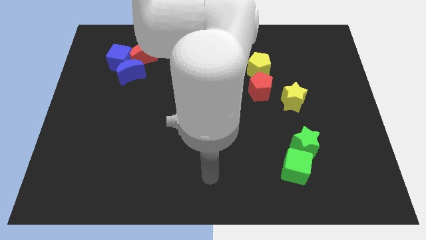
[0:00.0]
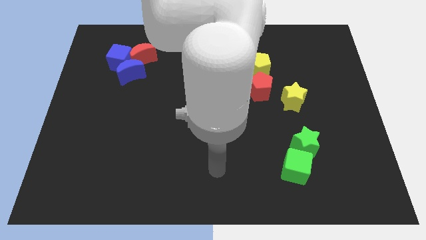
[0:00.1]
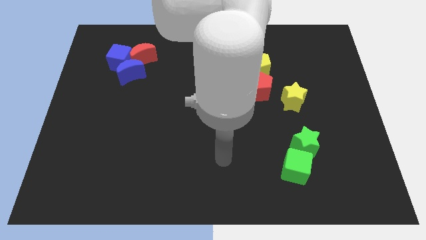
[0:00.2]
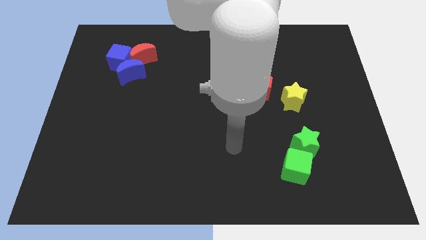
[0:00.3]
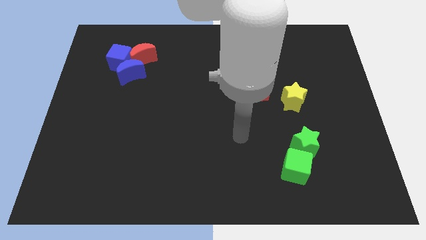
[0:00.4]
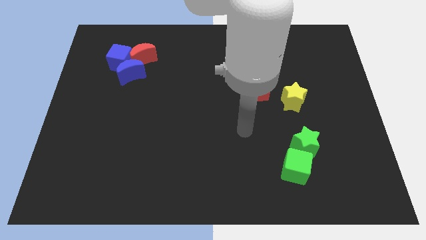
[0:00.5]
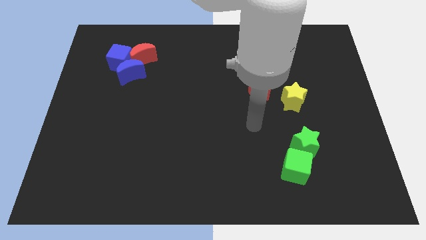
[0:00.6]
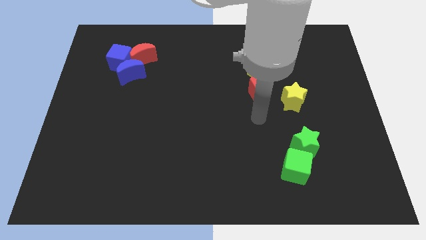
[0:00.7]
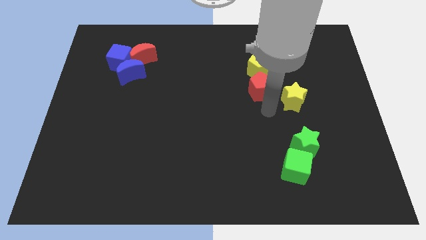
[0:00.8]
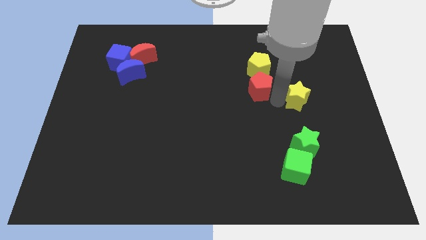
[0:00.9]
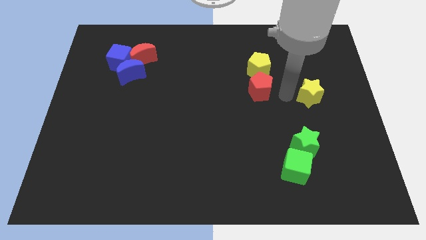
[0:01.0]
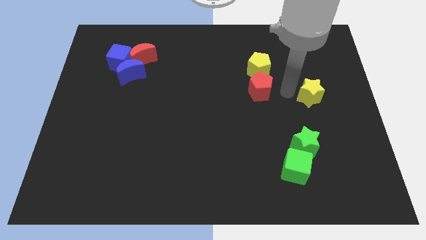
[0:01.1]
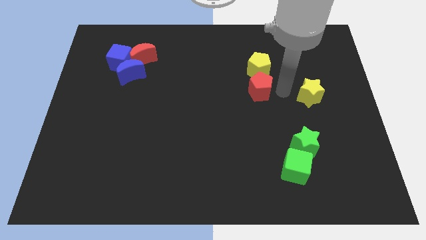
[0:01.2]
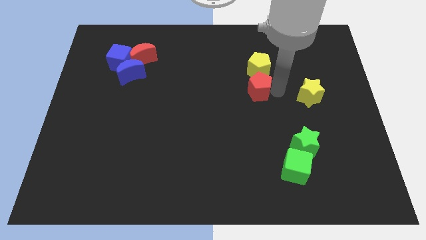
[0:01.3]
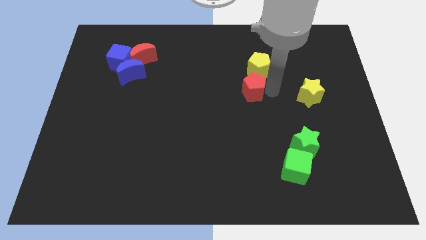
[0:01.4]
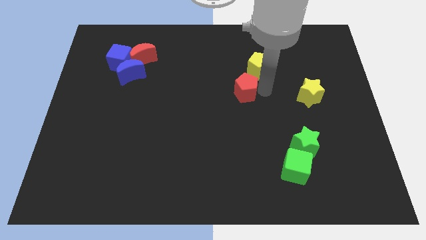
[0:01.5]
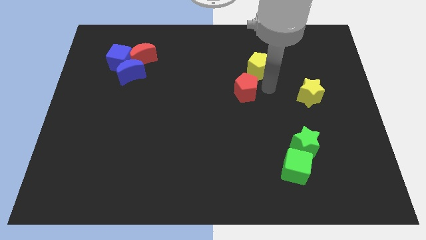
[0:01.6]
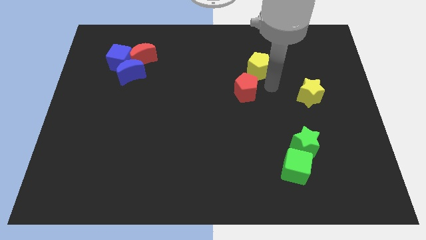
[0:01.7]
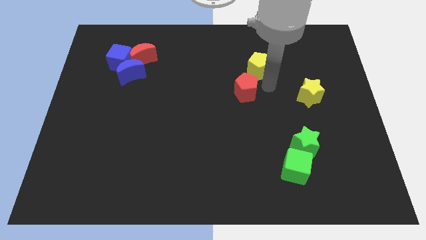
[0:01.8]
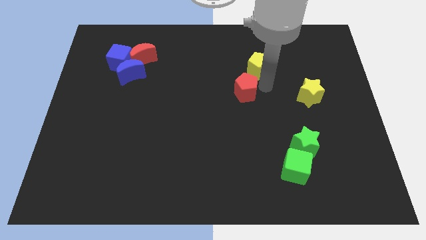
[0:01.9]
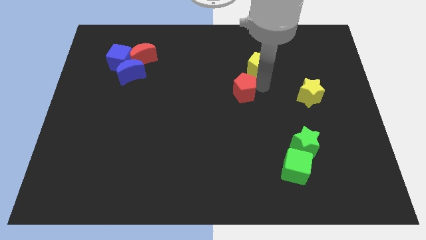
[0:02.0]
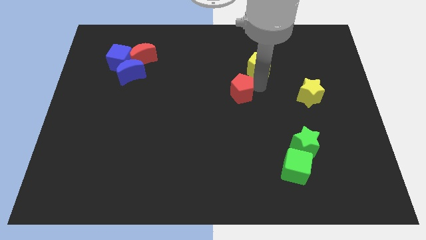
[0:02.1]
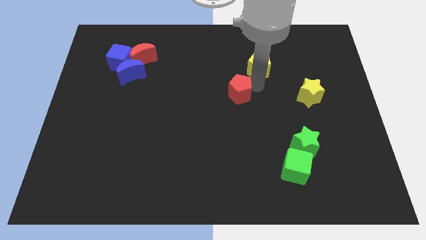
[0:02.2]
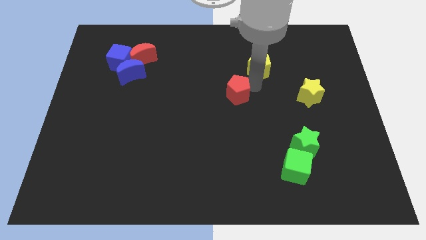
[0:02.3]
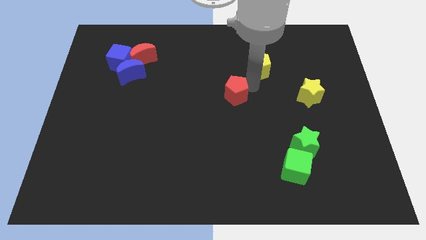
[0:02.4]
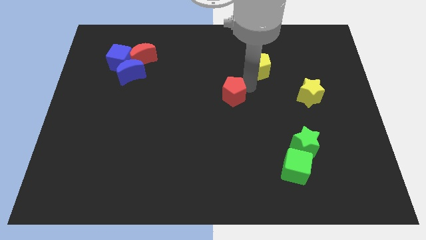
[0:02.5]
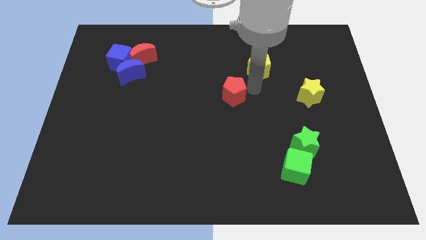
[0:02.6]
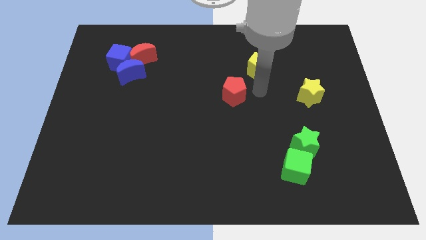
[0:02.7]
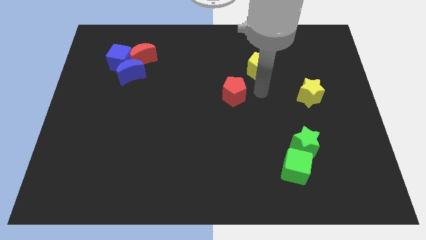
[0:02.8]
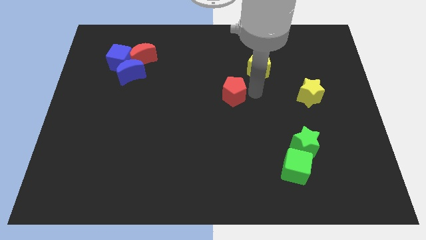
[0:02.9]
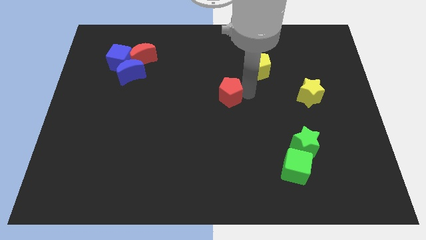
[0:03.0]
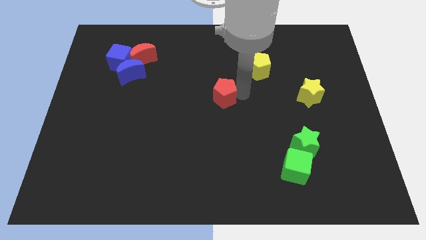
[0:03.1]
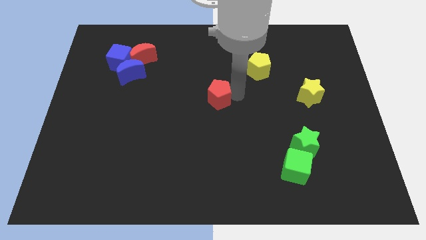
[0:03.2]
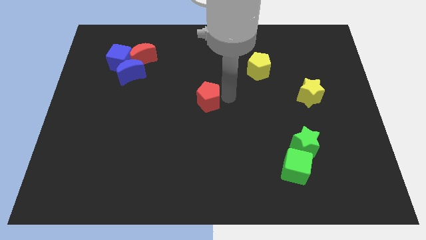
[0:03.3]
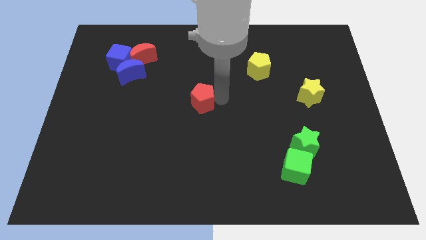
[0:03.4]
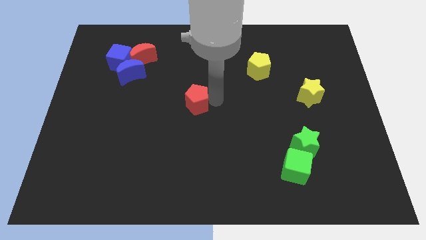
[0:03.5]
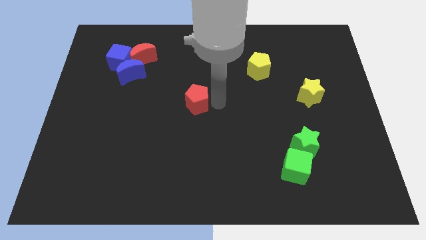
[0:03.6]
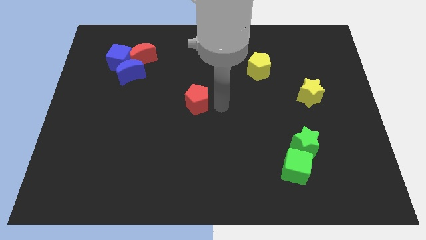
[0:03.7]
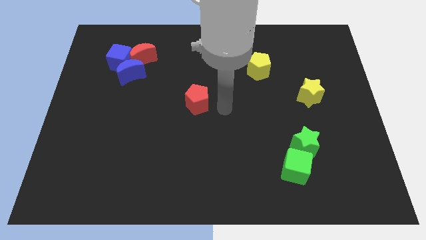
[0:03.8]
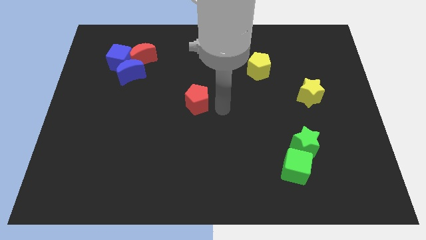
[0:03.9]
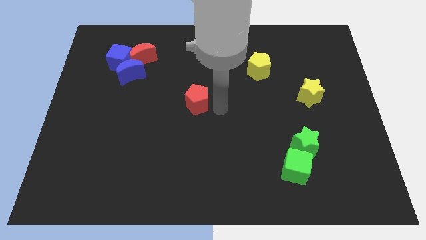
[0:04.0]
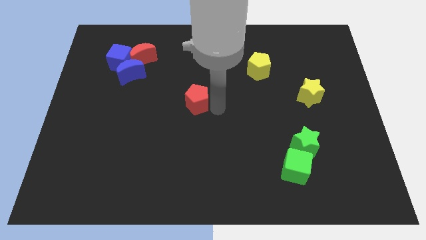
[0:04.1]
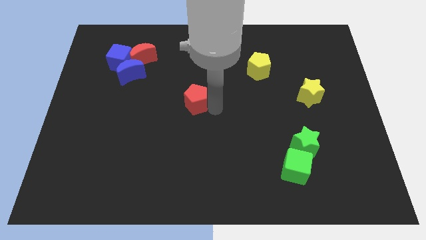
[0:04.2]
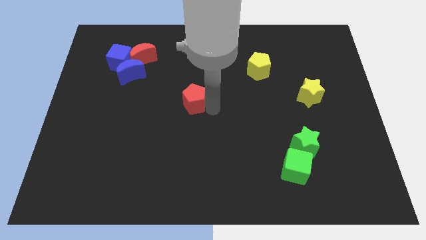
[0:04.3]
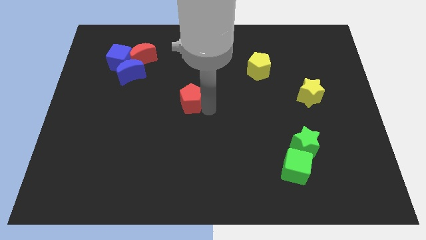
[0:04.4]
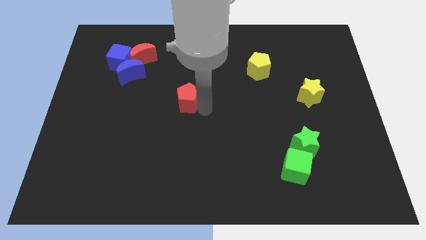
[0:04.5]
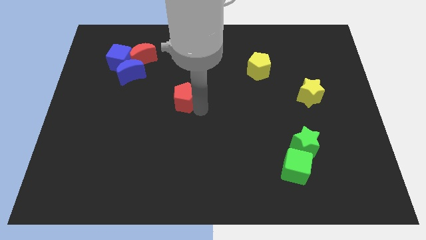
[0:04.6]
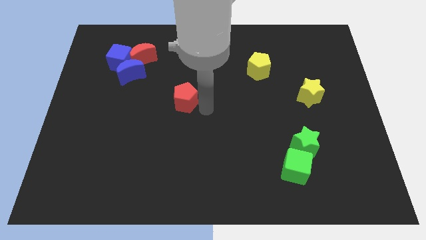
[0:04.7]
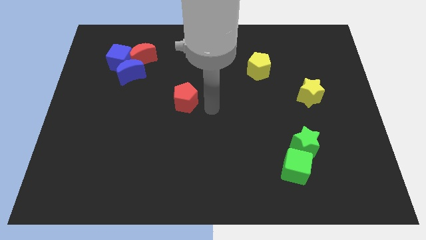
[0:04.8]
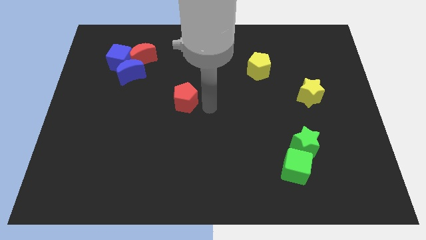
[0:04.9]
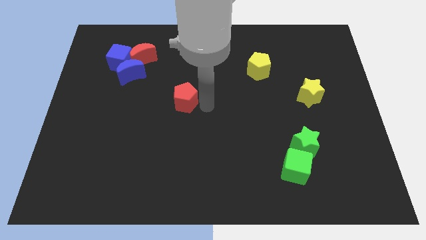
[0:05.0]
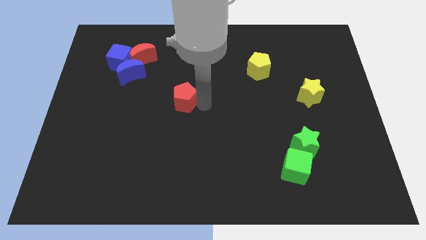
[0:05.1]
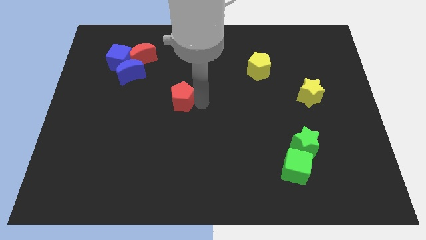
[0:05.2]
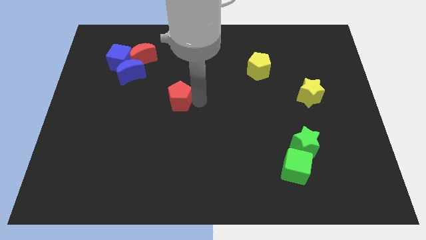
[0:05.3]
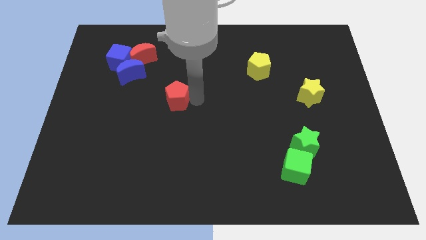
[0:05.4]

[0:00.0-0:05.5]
move the red pentagon left

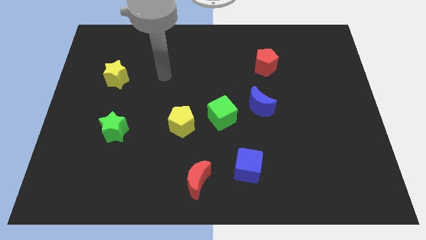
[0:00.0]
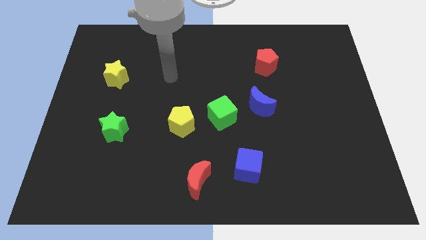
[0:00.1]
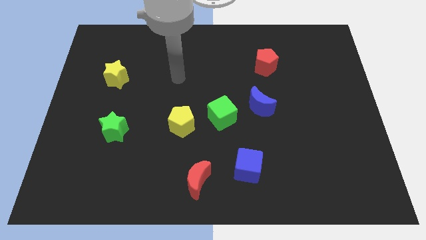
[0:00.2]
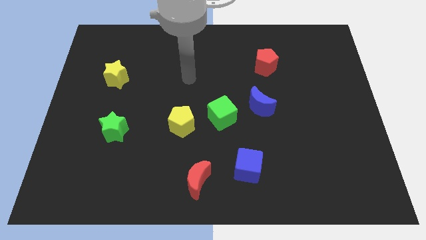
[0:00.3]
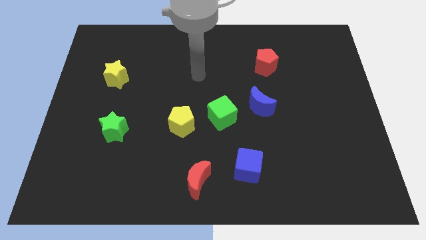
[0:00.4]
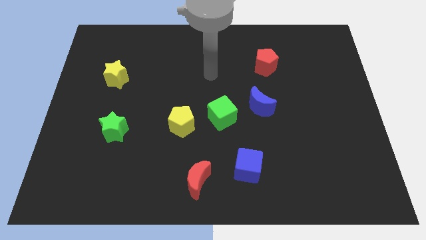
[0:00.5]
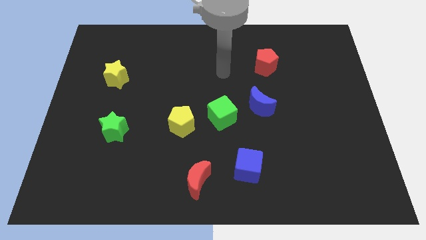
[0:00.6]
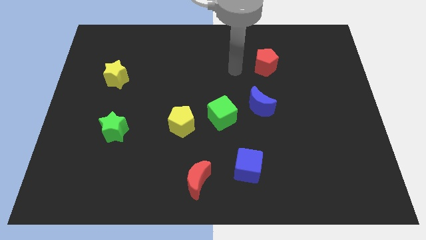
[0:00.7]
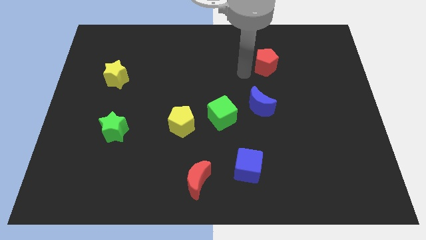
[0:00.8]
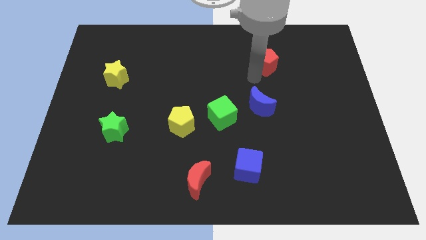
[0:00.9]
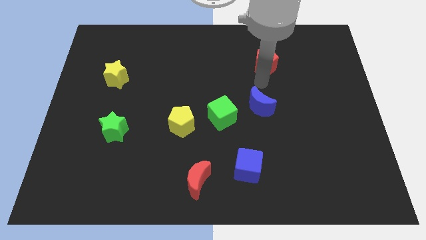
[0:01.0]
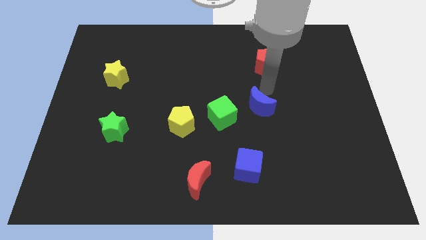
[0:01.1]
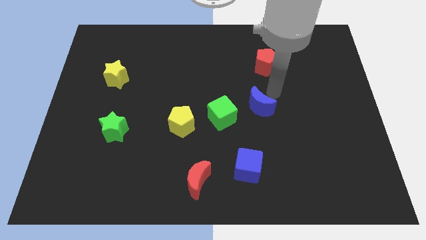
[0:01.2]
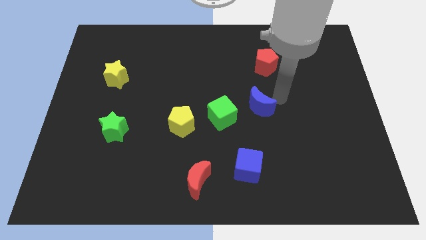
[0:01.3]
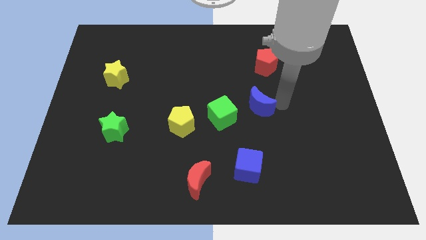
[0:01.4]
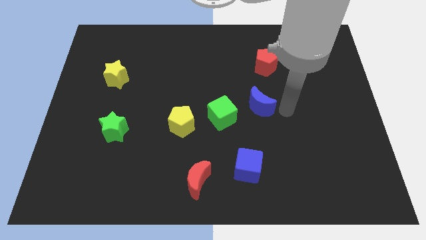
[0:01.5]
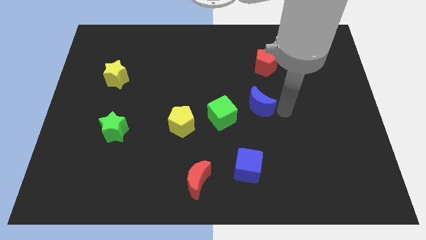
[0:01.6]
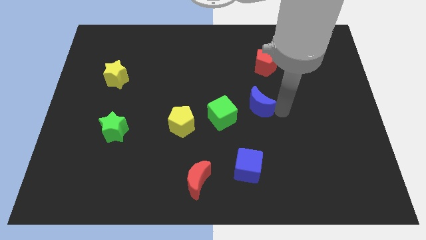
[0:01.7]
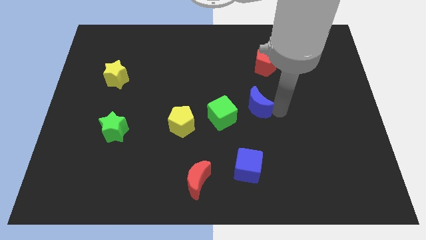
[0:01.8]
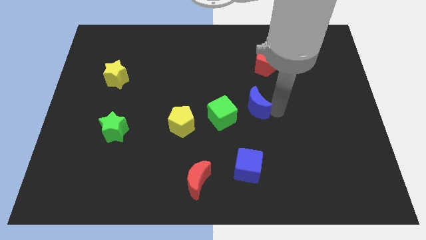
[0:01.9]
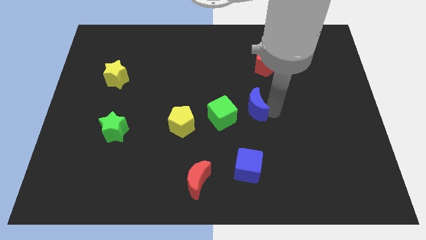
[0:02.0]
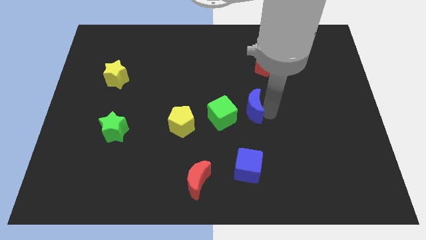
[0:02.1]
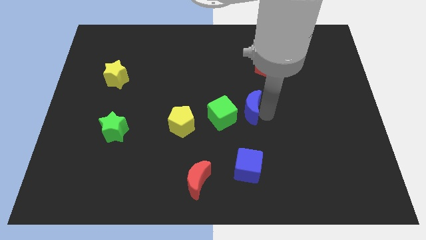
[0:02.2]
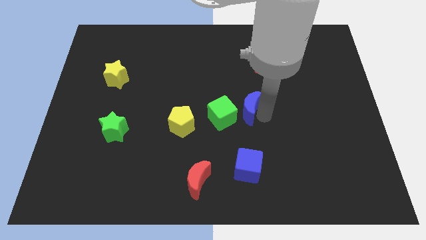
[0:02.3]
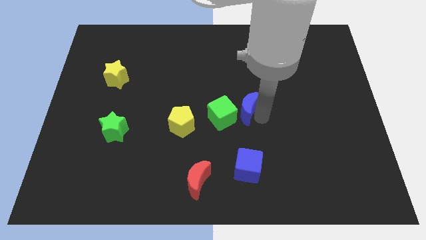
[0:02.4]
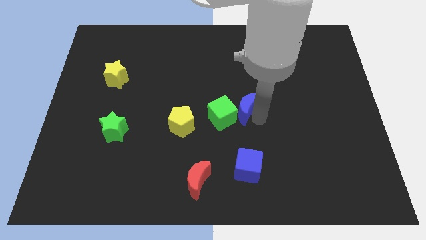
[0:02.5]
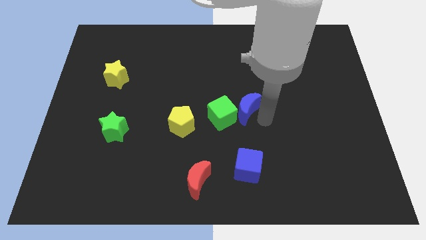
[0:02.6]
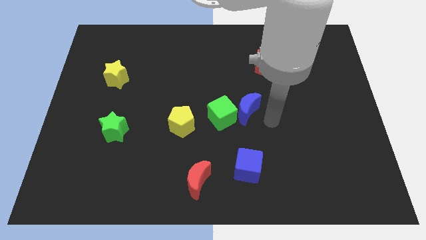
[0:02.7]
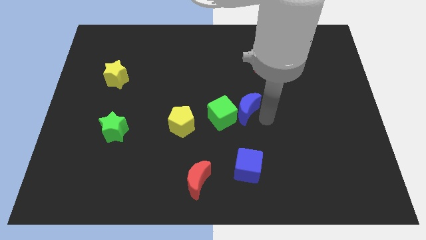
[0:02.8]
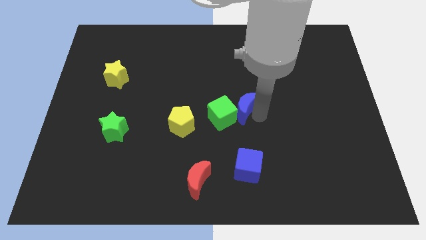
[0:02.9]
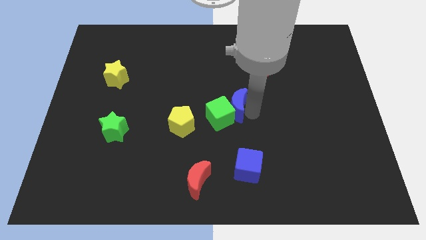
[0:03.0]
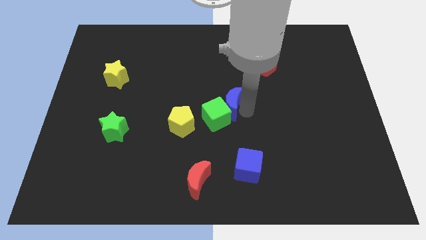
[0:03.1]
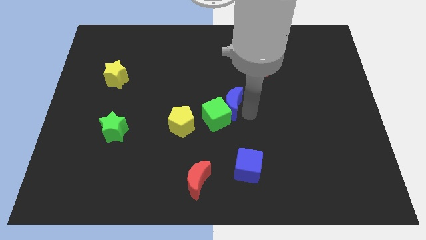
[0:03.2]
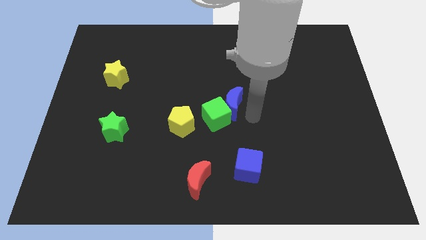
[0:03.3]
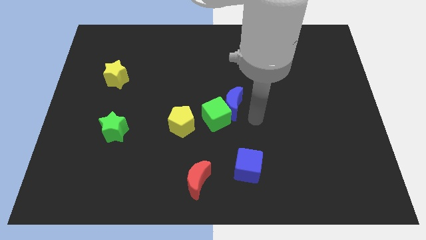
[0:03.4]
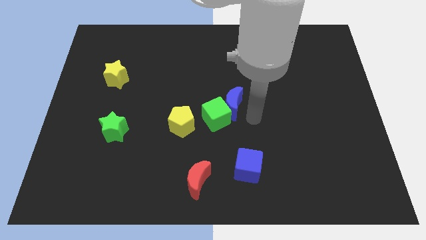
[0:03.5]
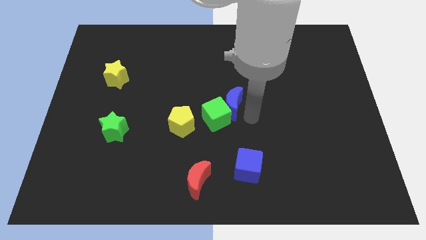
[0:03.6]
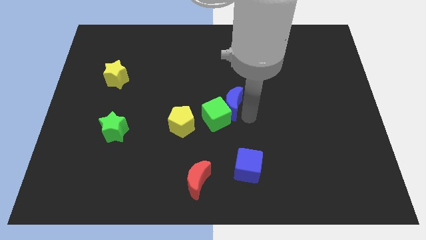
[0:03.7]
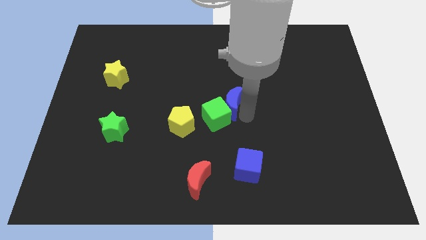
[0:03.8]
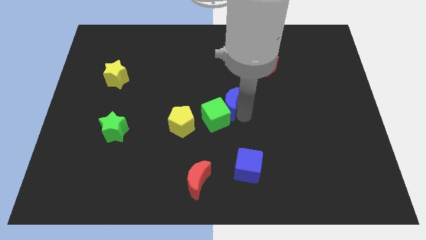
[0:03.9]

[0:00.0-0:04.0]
slightly push the blue moon left
